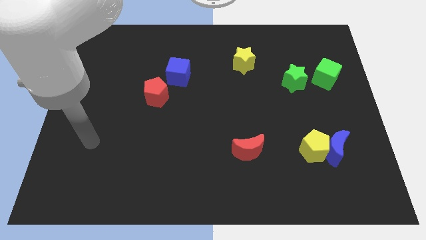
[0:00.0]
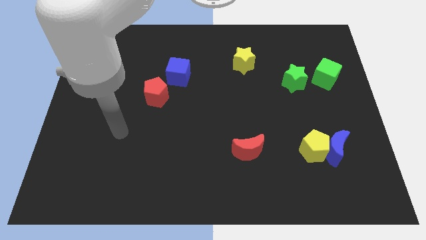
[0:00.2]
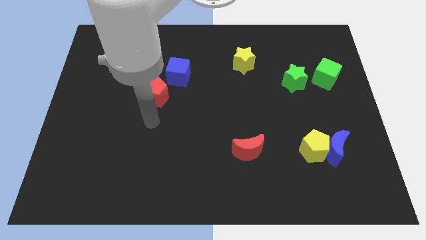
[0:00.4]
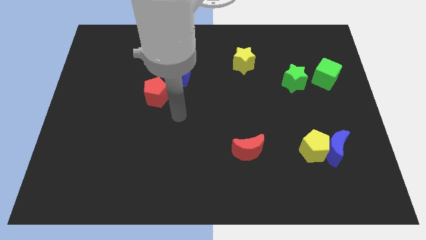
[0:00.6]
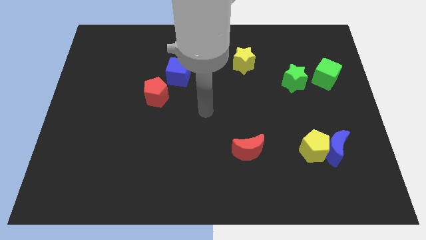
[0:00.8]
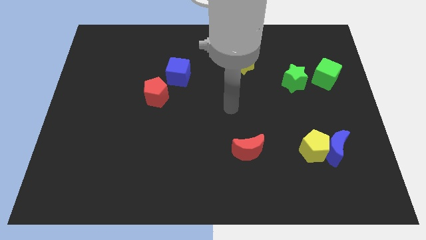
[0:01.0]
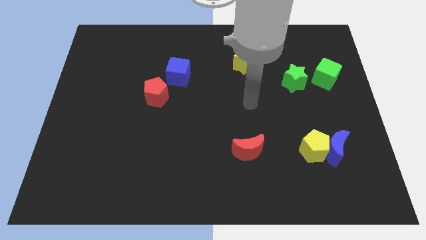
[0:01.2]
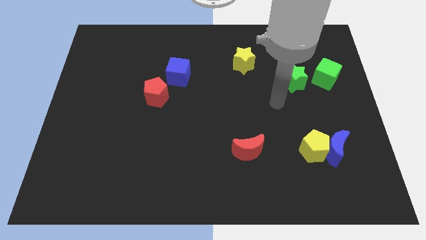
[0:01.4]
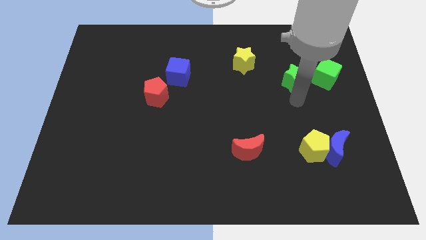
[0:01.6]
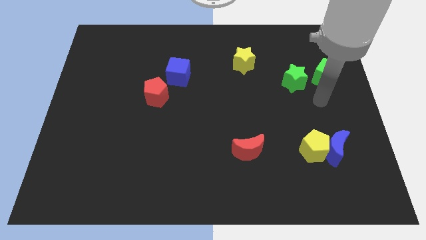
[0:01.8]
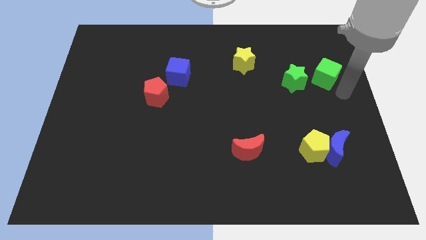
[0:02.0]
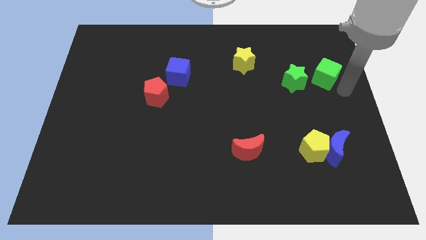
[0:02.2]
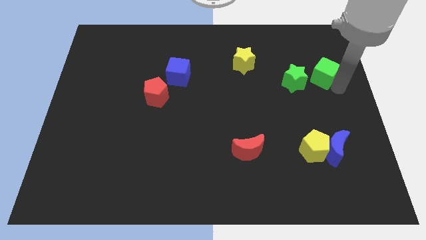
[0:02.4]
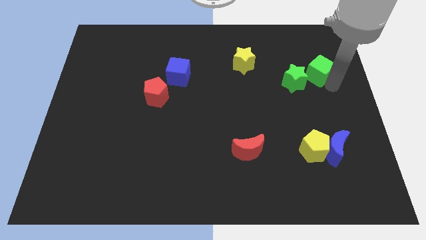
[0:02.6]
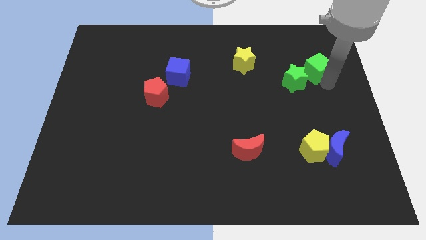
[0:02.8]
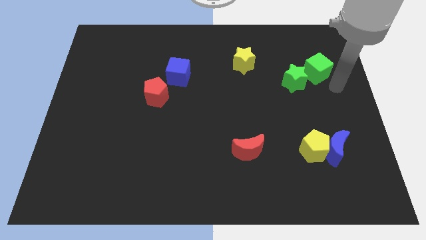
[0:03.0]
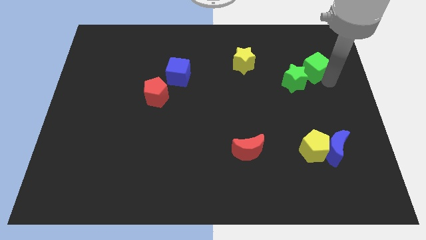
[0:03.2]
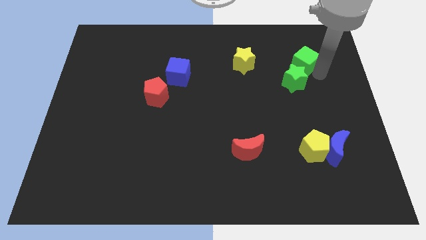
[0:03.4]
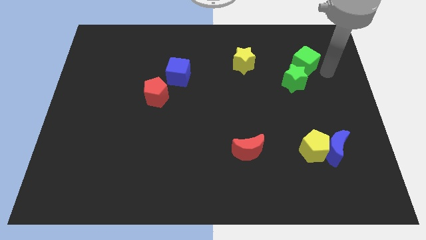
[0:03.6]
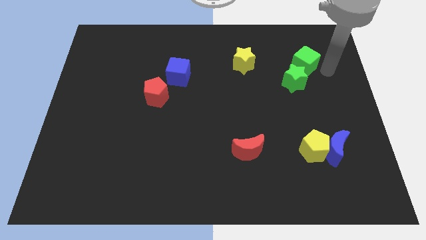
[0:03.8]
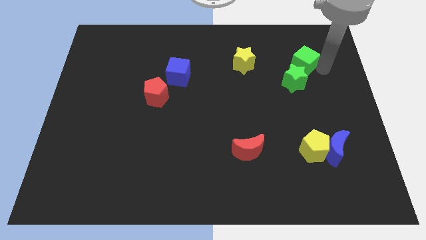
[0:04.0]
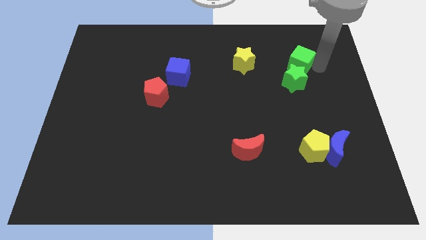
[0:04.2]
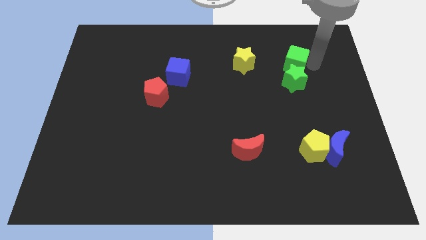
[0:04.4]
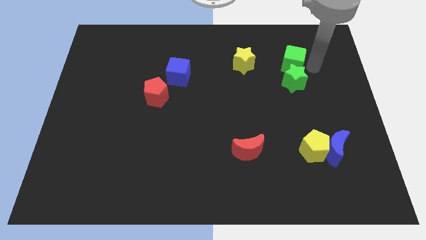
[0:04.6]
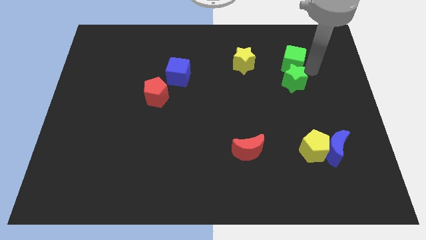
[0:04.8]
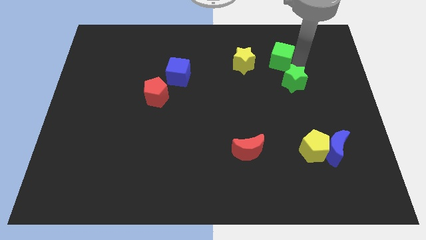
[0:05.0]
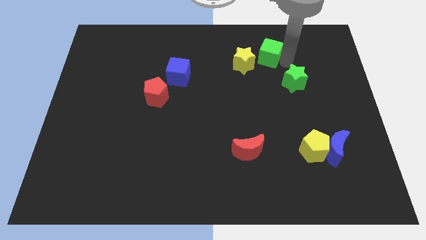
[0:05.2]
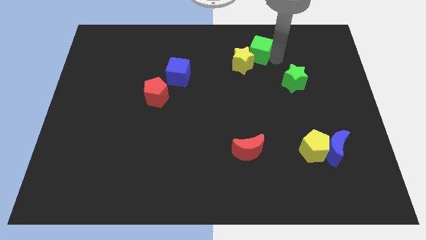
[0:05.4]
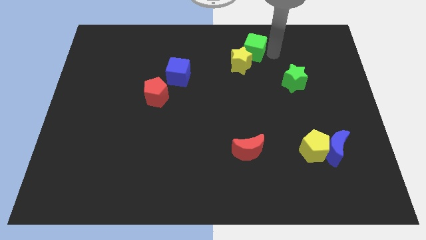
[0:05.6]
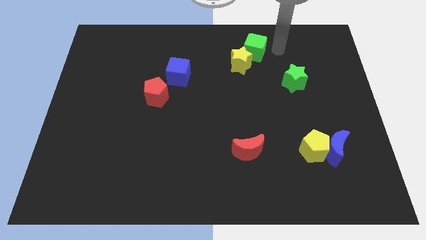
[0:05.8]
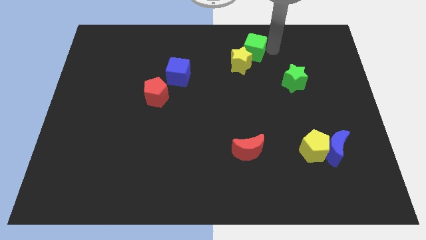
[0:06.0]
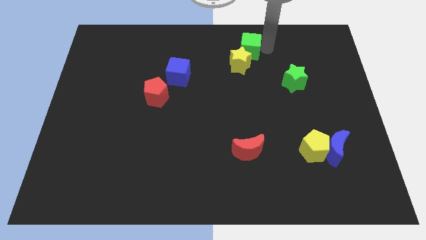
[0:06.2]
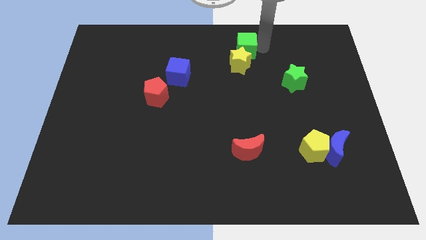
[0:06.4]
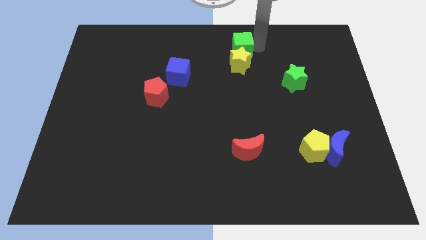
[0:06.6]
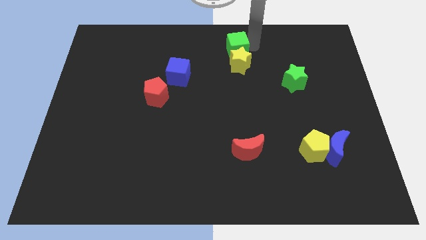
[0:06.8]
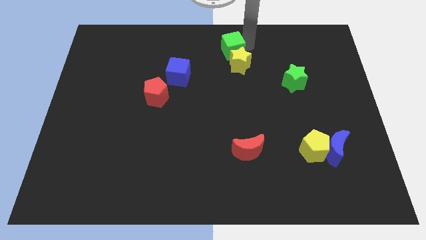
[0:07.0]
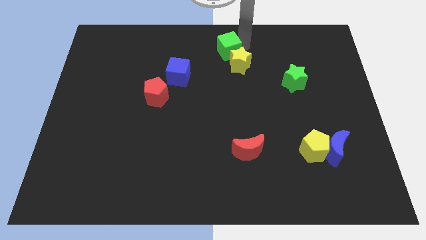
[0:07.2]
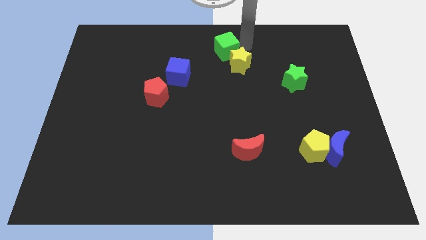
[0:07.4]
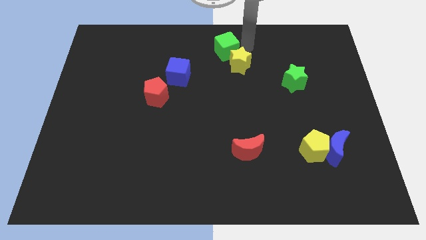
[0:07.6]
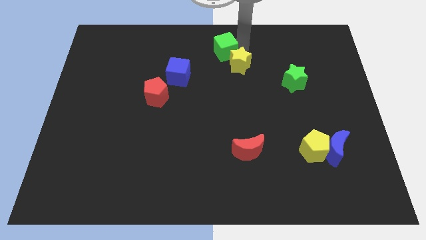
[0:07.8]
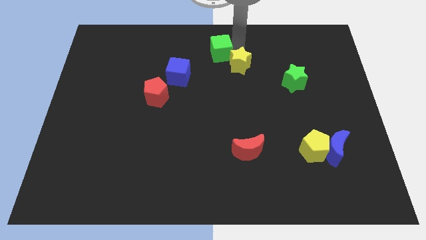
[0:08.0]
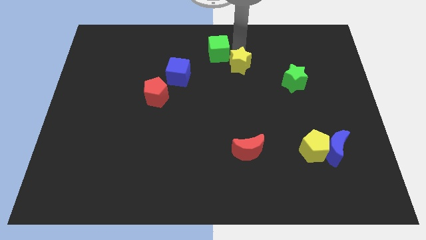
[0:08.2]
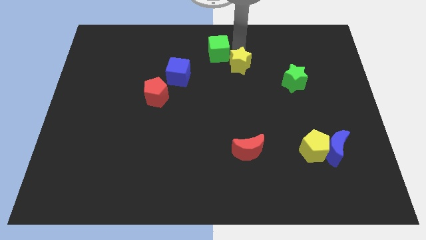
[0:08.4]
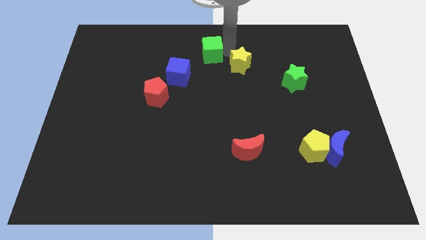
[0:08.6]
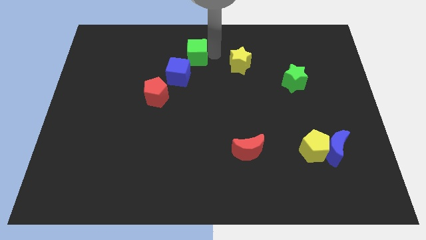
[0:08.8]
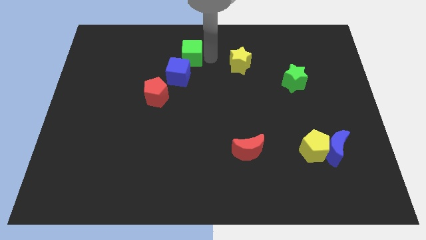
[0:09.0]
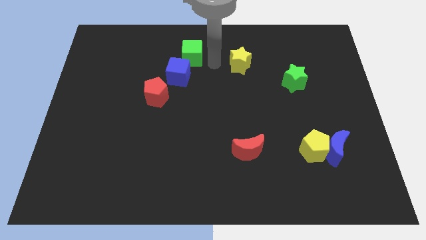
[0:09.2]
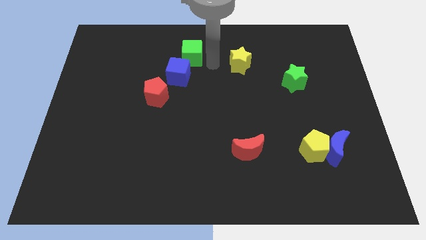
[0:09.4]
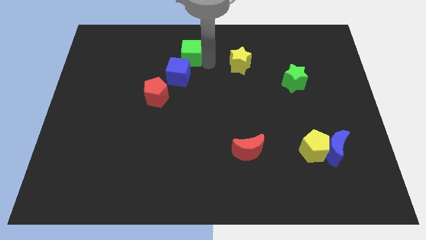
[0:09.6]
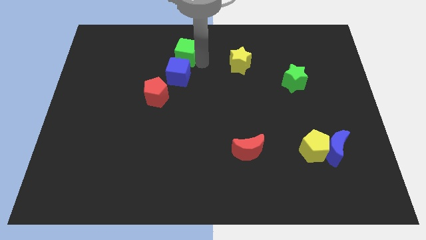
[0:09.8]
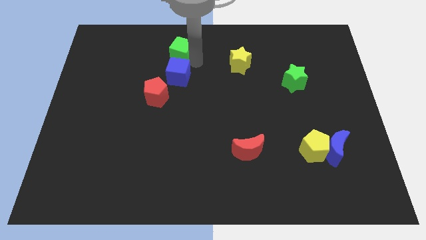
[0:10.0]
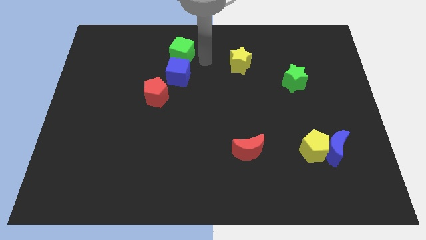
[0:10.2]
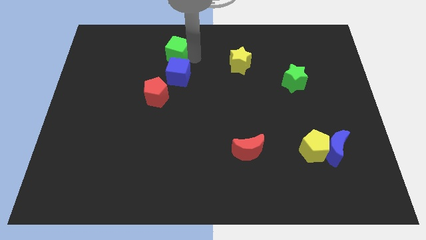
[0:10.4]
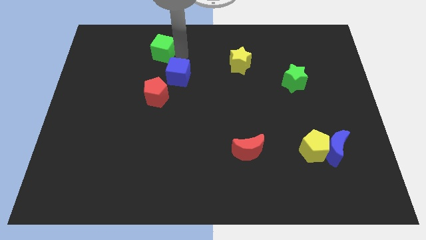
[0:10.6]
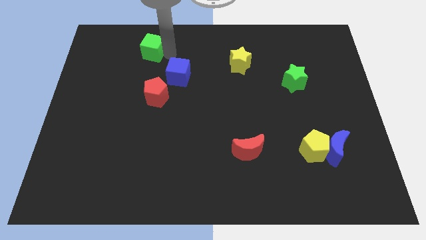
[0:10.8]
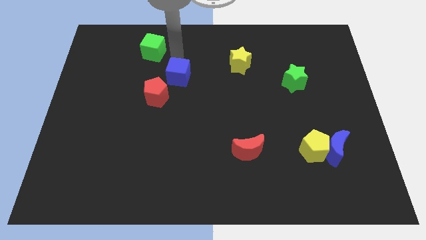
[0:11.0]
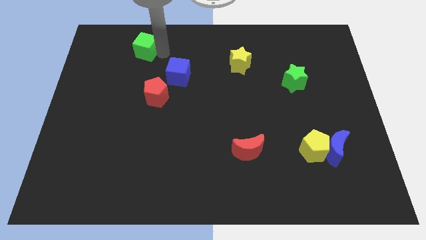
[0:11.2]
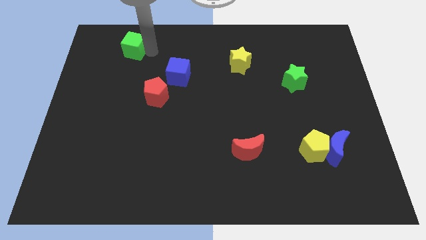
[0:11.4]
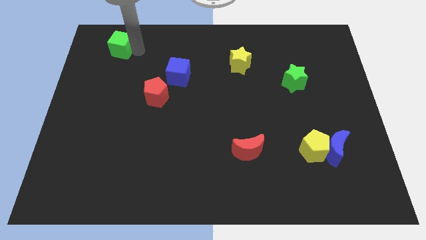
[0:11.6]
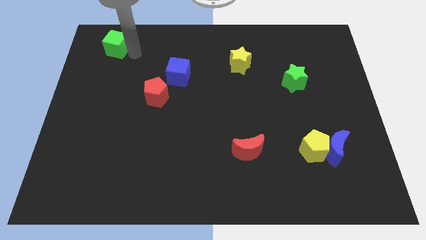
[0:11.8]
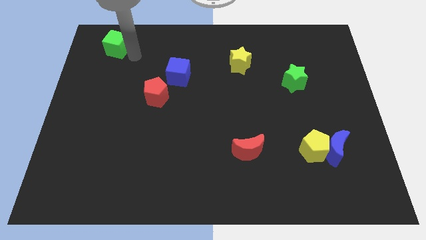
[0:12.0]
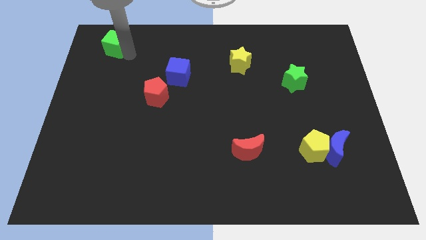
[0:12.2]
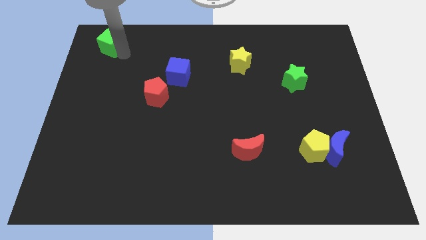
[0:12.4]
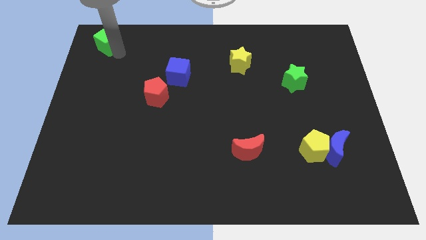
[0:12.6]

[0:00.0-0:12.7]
move the green cube to the upper left corner
